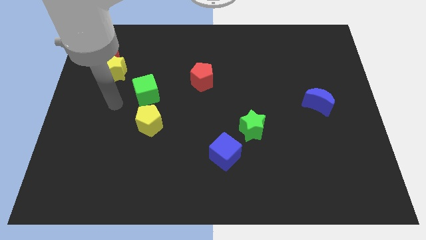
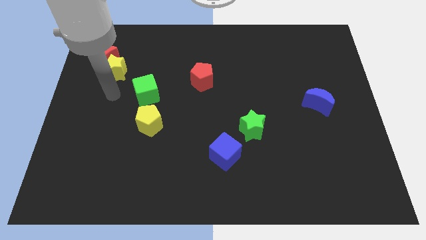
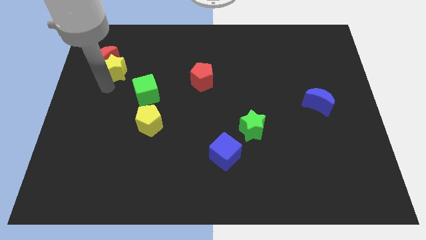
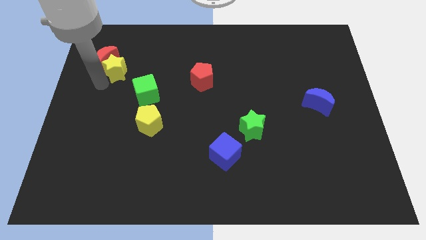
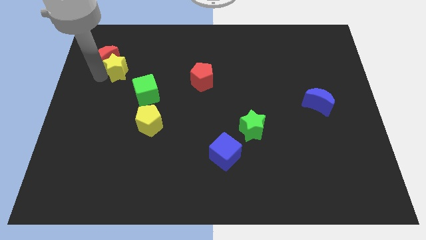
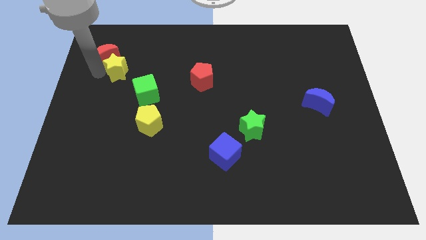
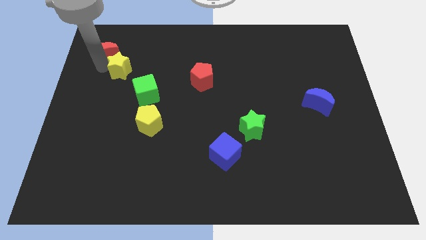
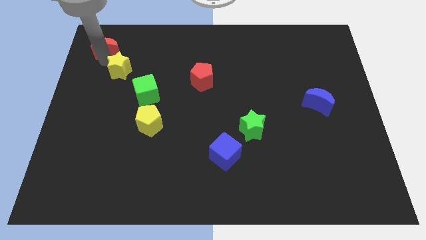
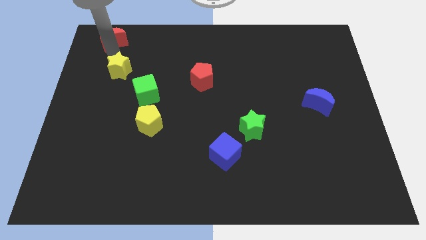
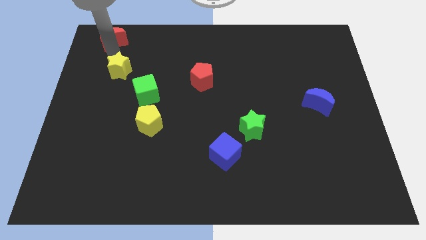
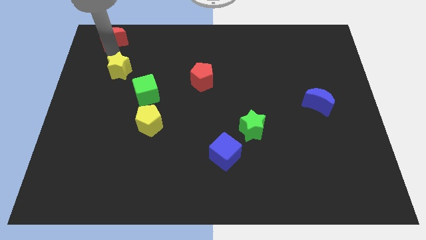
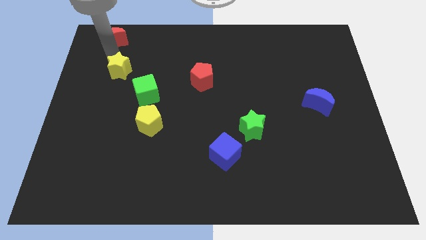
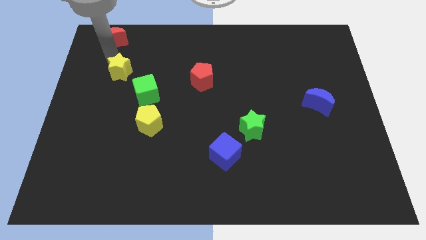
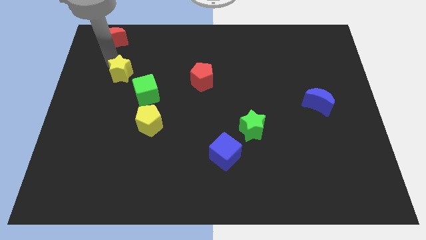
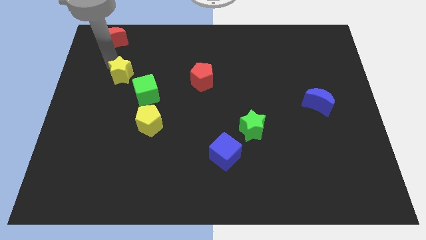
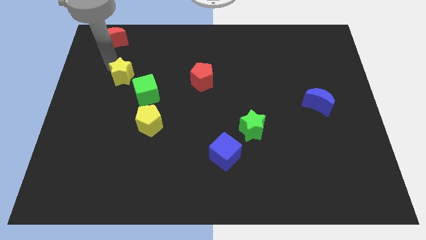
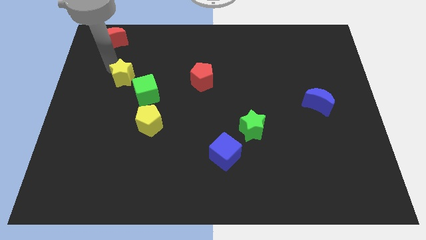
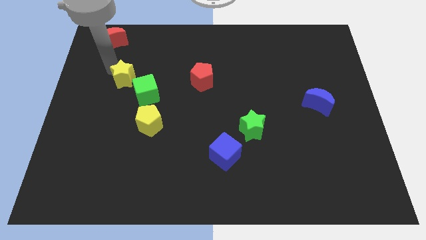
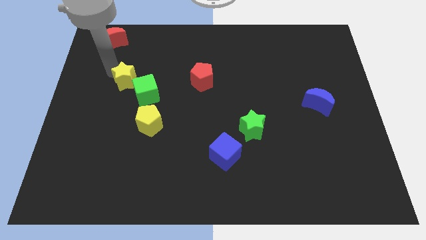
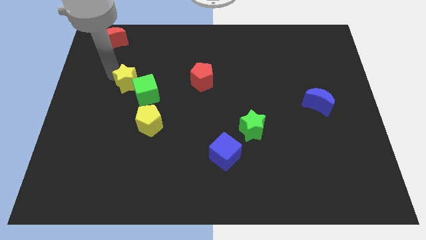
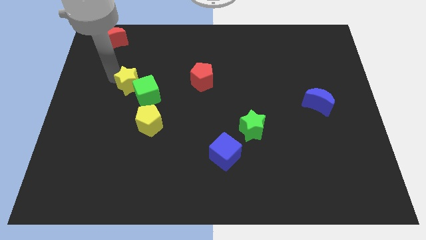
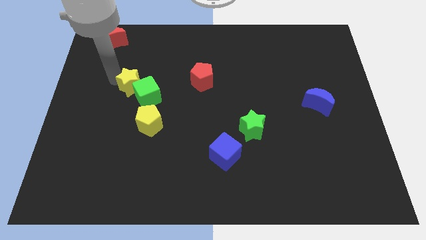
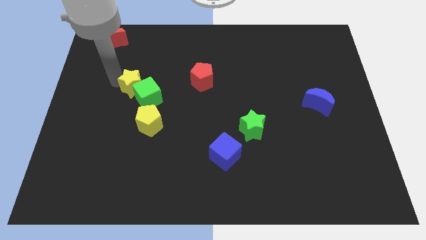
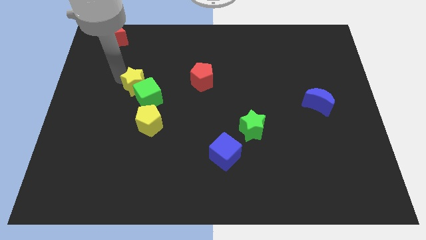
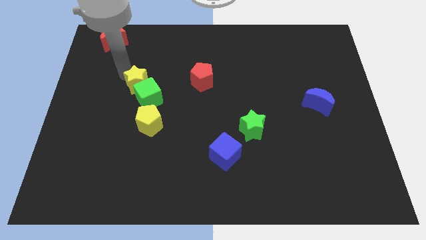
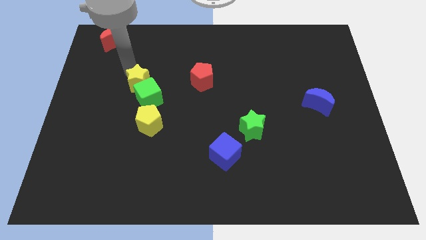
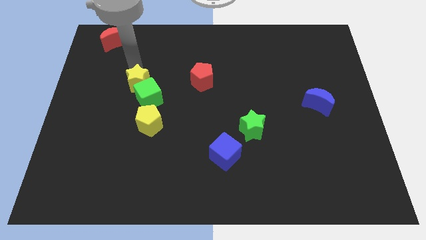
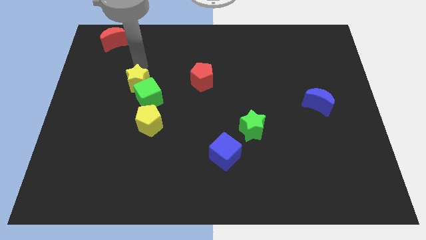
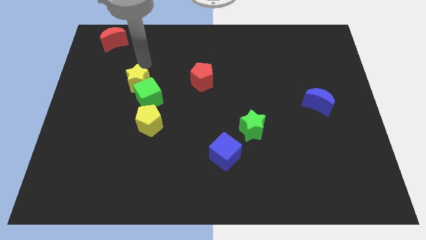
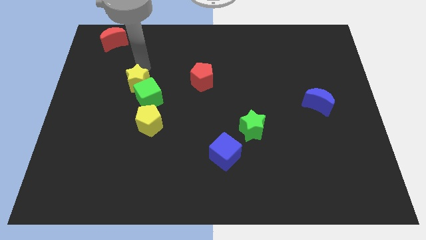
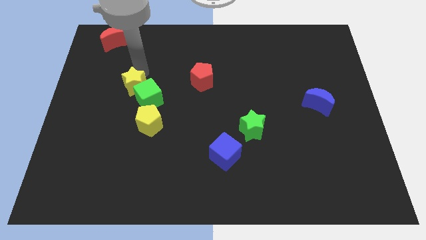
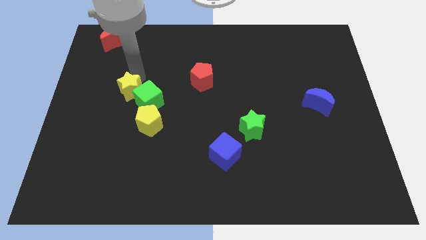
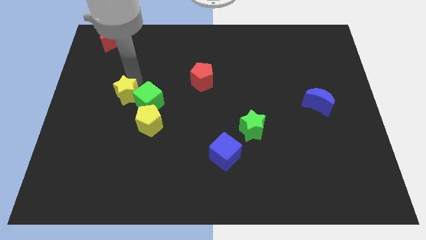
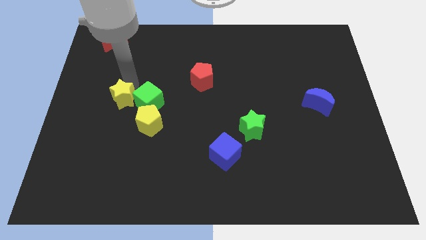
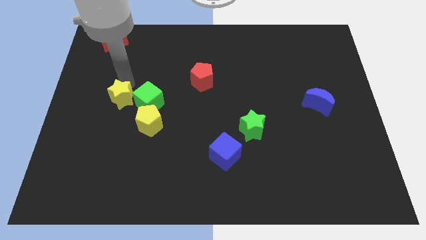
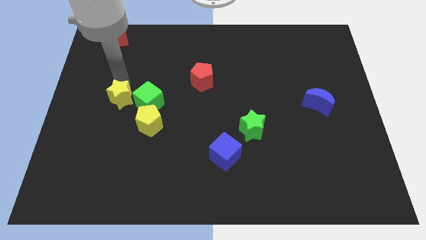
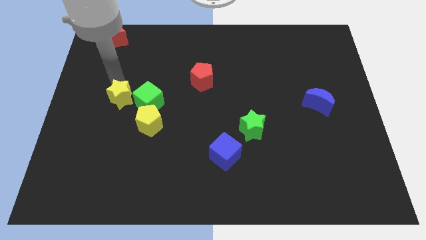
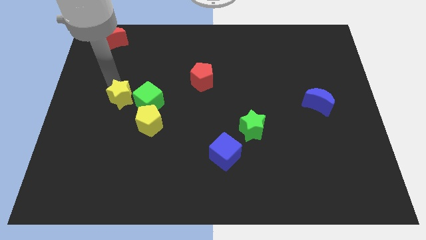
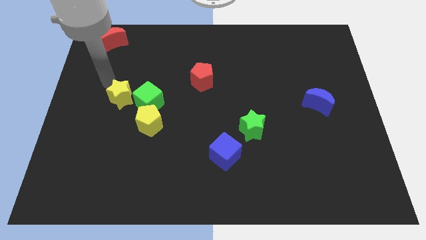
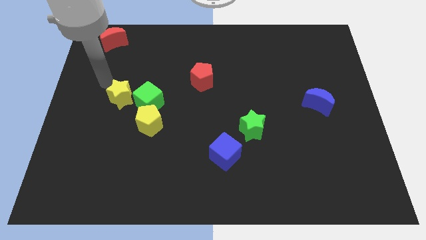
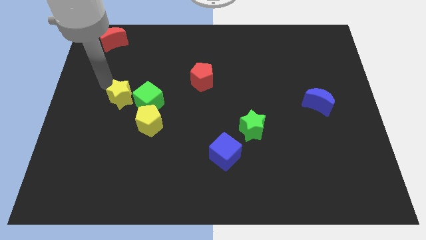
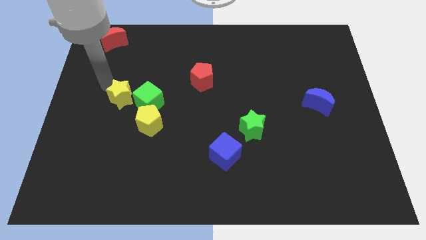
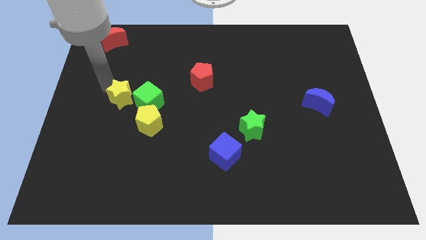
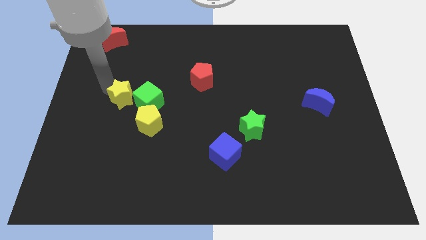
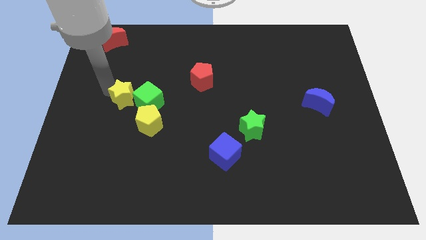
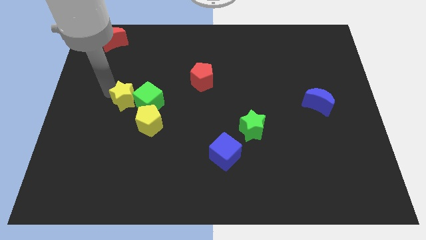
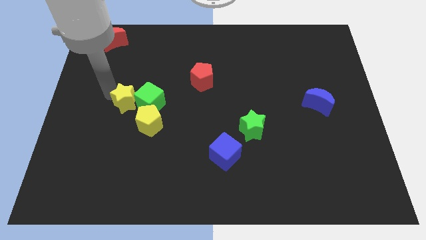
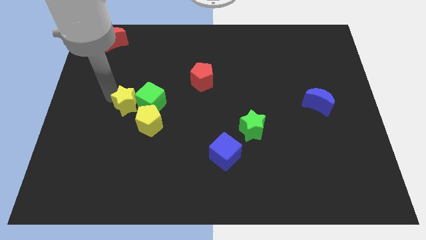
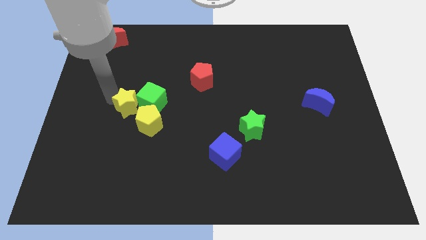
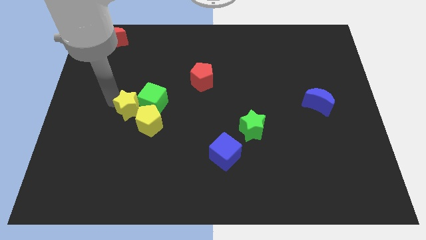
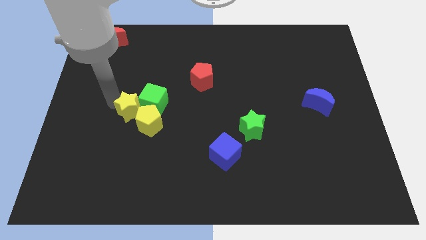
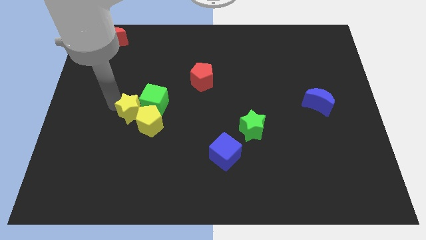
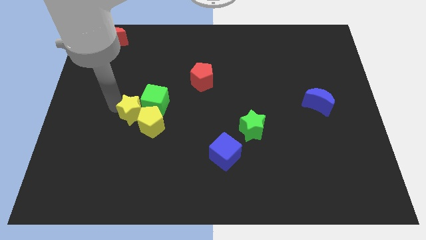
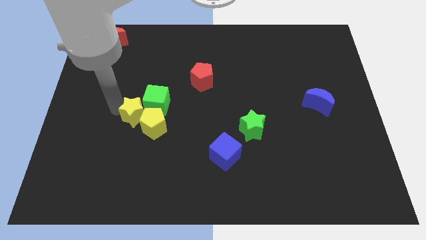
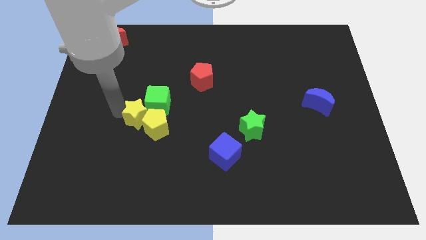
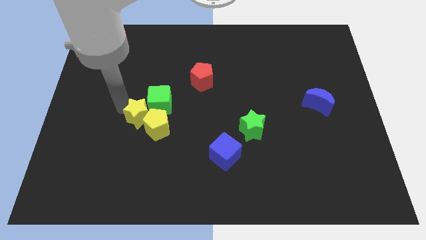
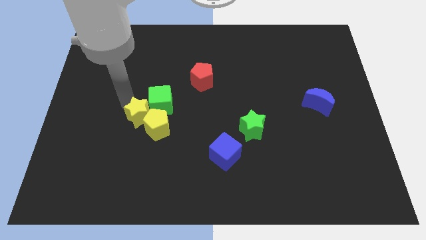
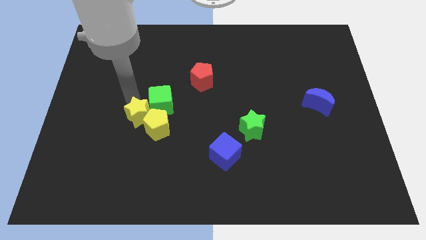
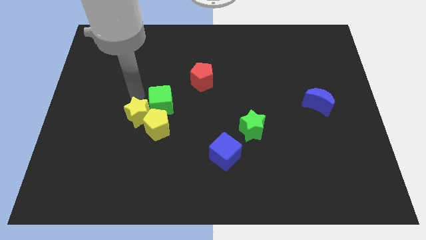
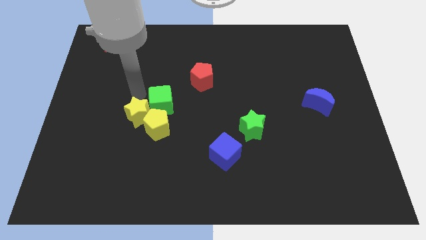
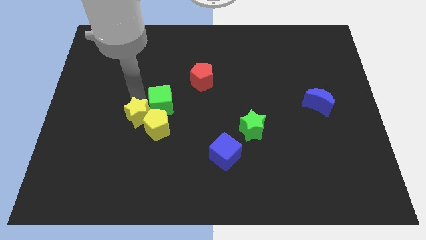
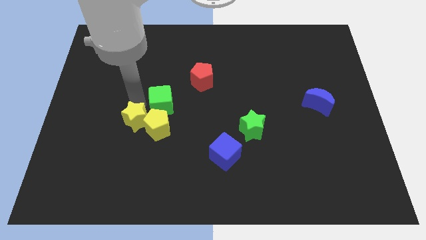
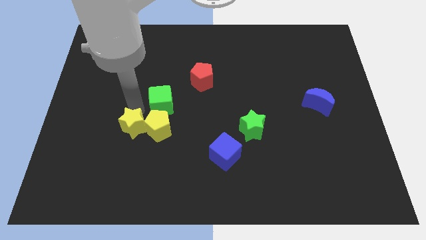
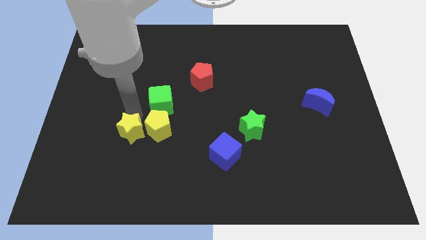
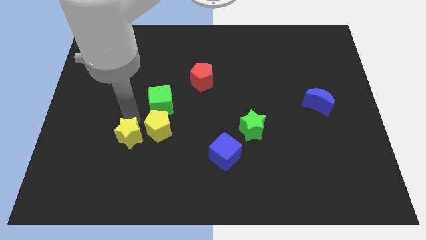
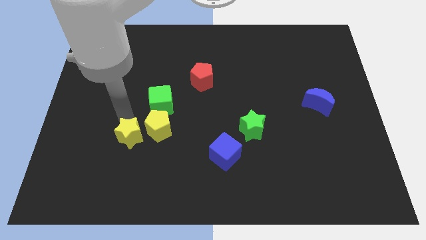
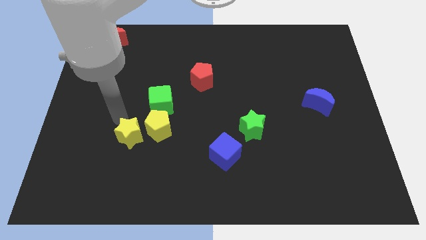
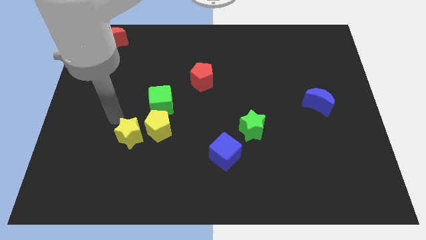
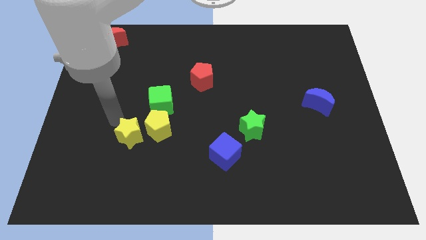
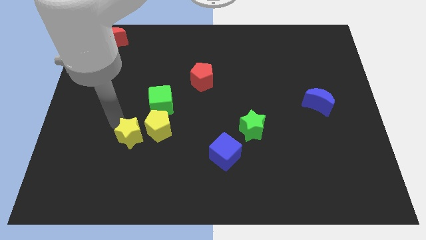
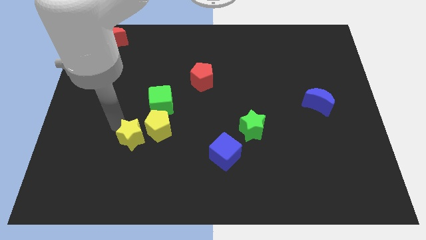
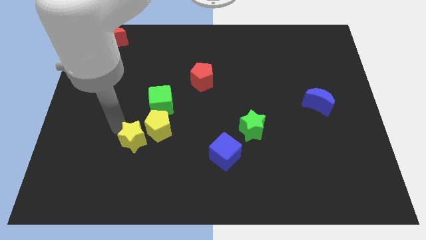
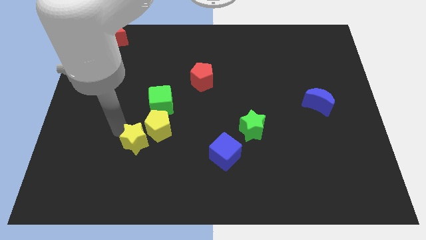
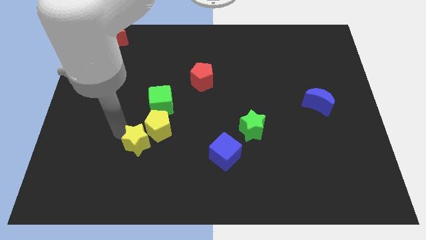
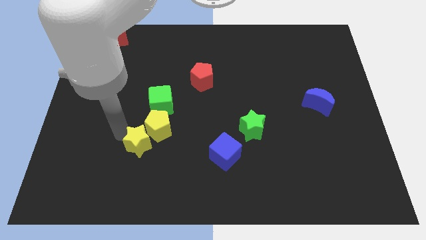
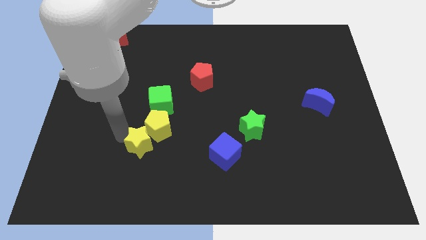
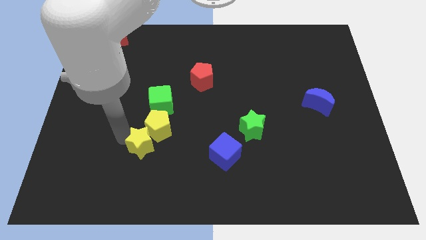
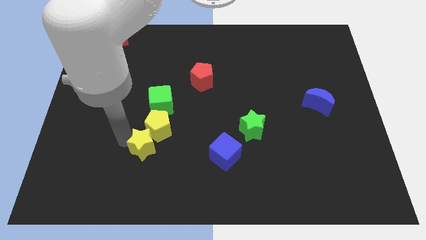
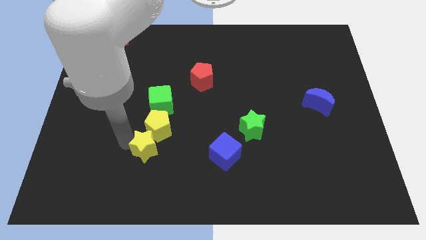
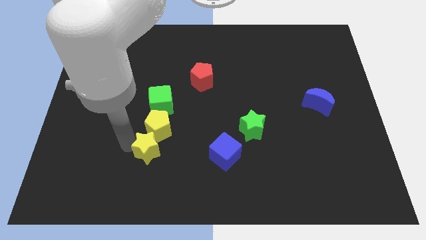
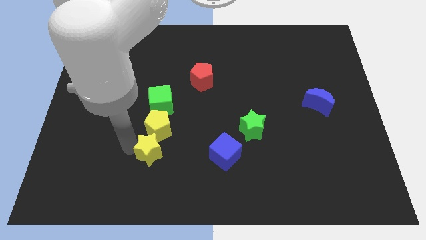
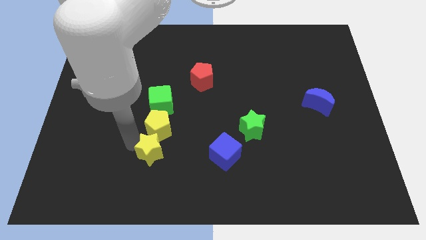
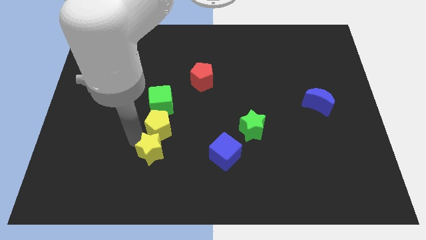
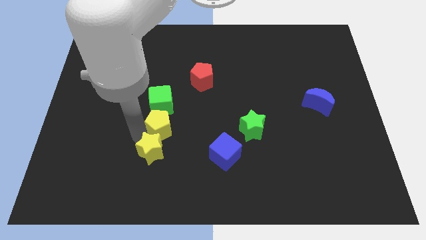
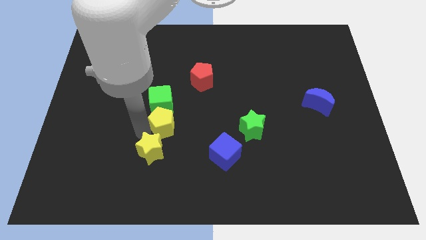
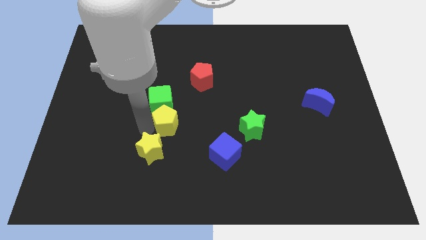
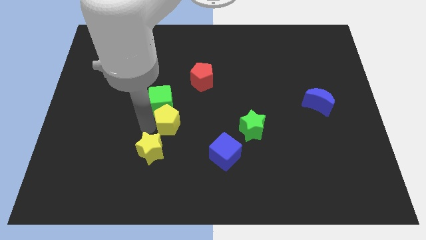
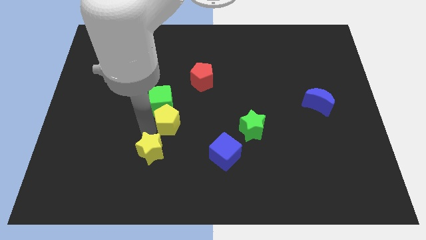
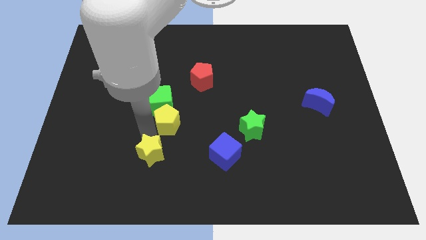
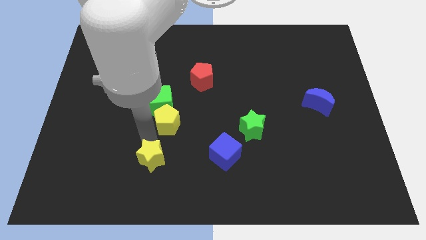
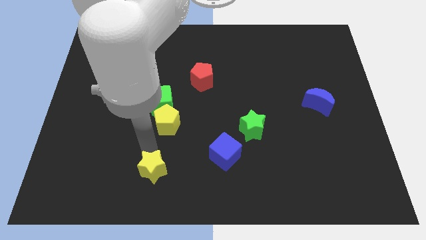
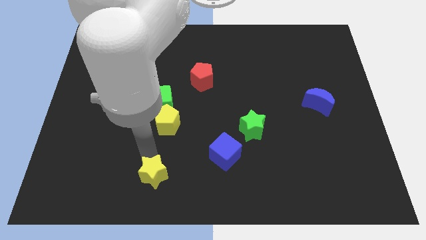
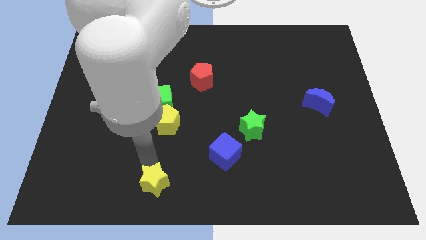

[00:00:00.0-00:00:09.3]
move the yellow star to the bottom side
